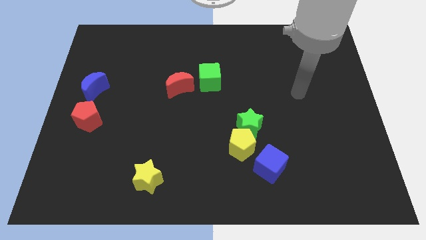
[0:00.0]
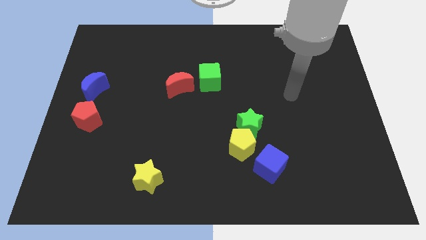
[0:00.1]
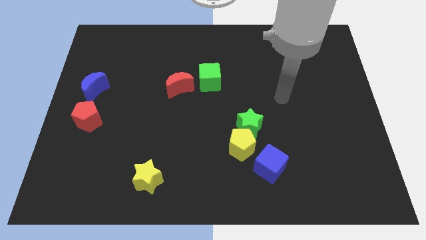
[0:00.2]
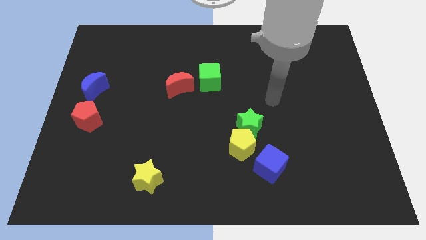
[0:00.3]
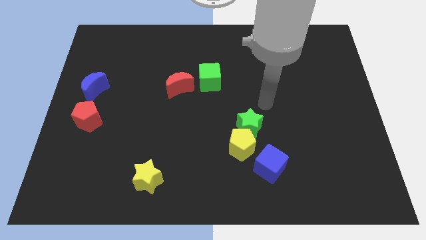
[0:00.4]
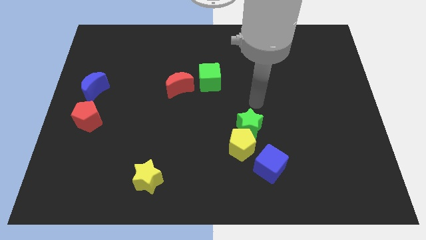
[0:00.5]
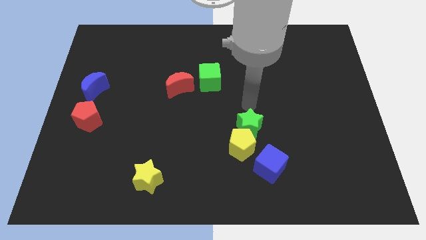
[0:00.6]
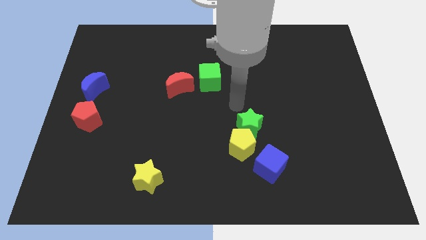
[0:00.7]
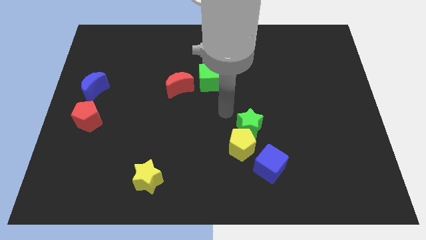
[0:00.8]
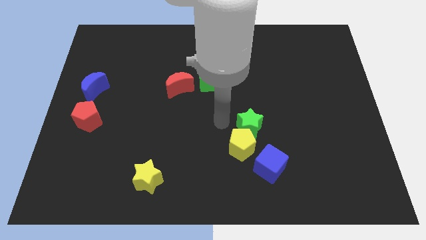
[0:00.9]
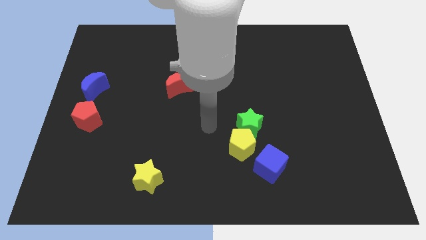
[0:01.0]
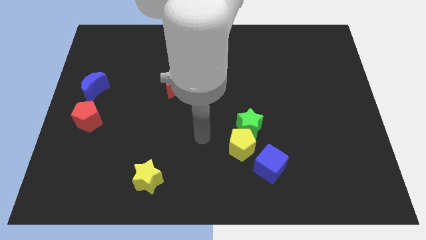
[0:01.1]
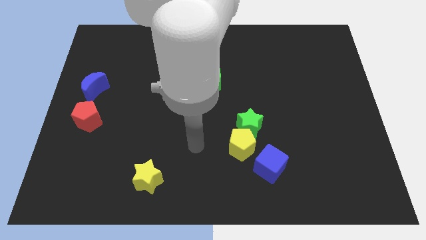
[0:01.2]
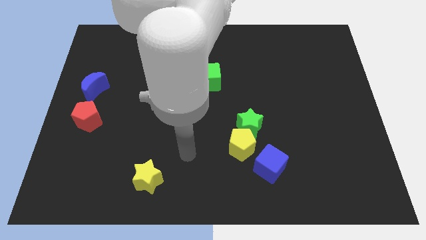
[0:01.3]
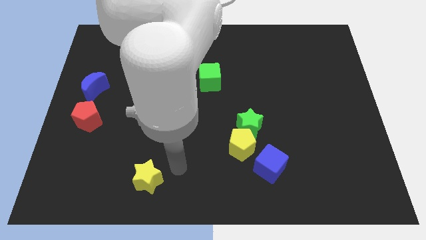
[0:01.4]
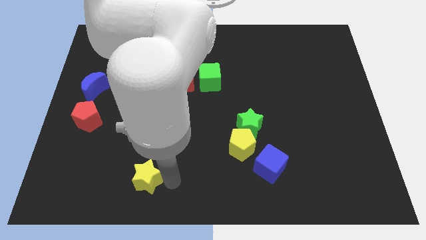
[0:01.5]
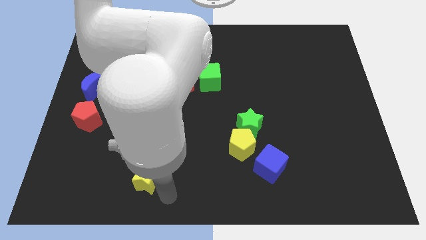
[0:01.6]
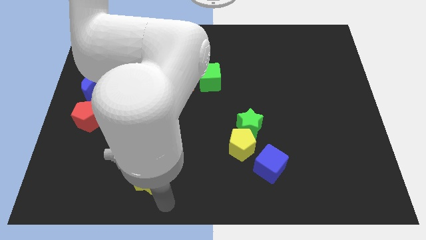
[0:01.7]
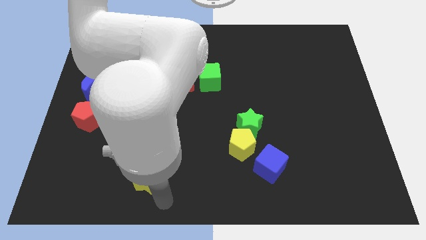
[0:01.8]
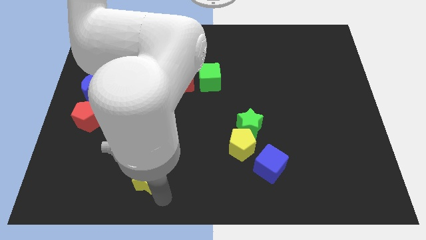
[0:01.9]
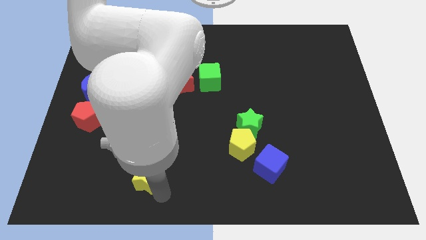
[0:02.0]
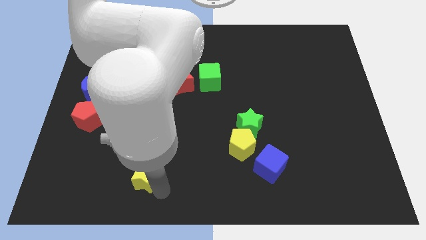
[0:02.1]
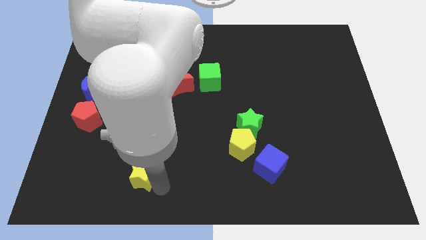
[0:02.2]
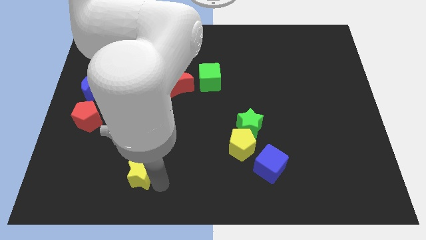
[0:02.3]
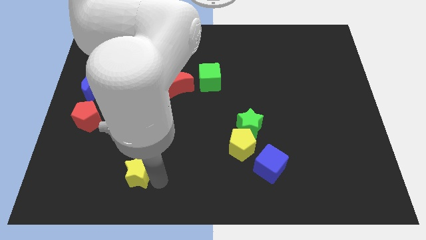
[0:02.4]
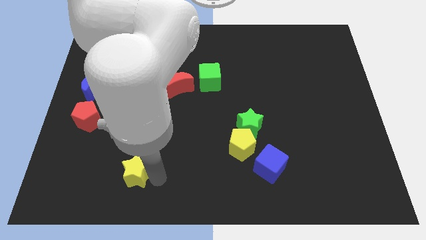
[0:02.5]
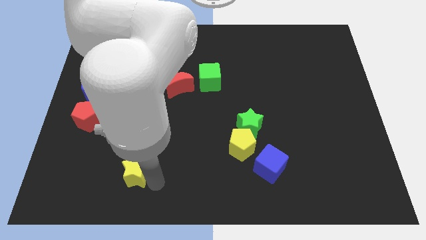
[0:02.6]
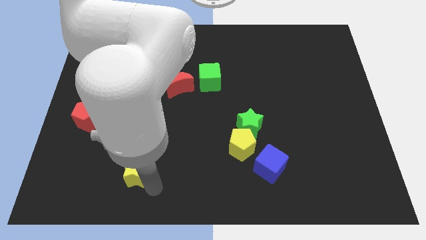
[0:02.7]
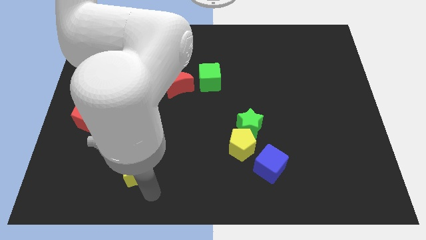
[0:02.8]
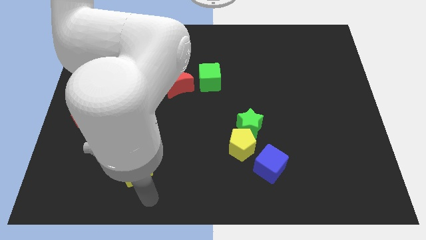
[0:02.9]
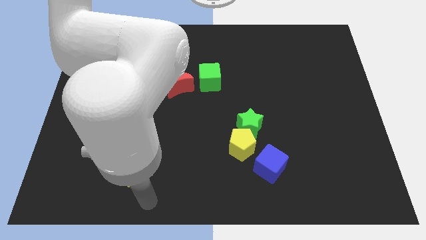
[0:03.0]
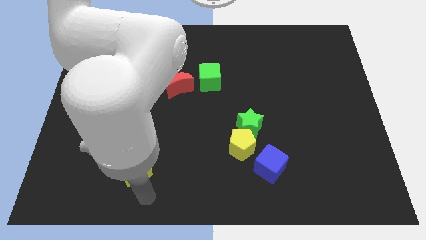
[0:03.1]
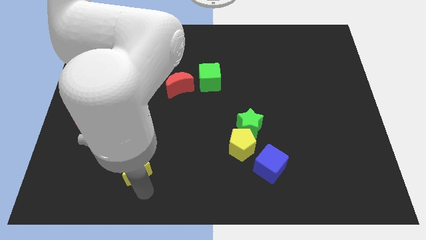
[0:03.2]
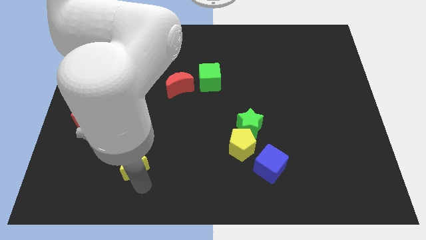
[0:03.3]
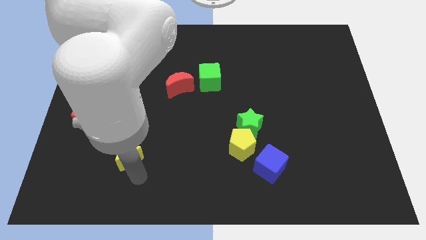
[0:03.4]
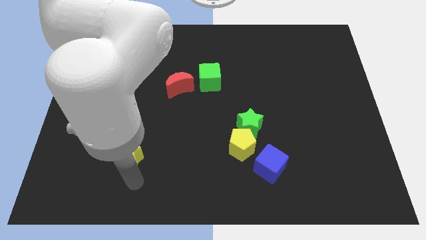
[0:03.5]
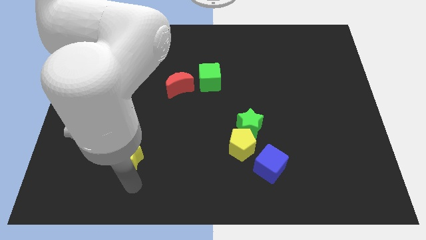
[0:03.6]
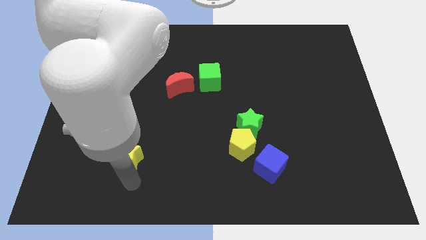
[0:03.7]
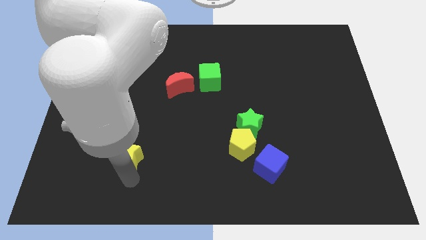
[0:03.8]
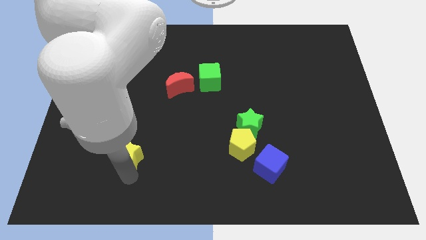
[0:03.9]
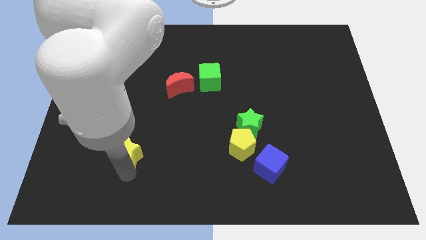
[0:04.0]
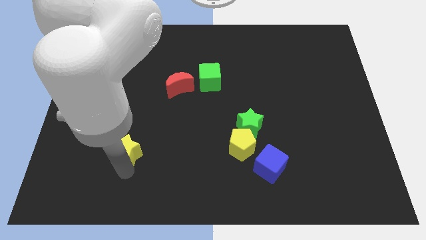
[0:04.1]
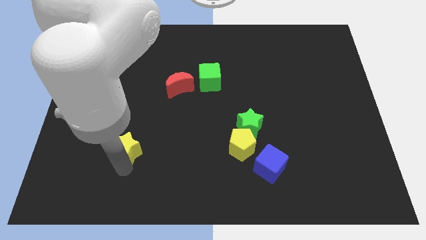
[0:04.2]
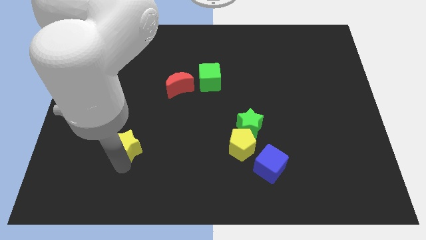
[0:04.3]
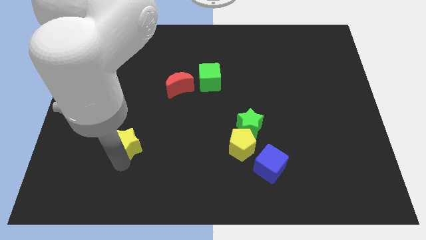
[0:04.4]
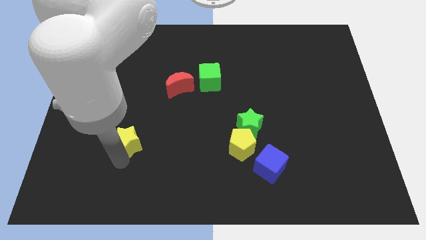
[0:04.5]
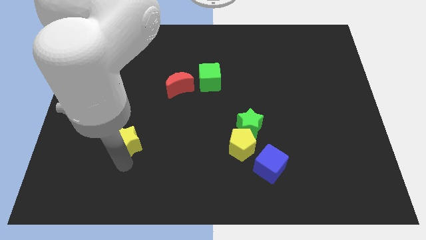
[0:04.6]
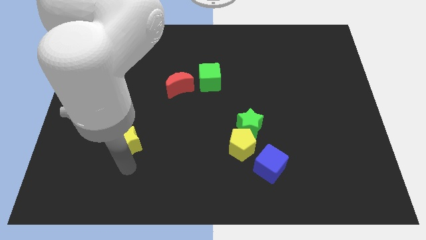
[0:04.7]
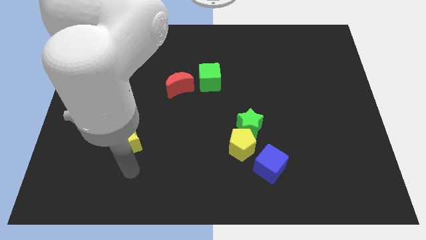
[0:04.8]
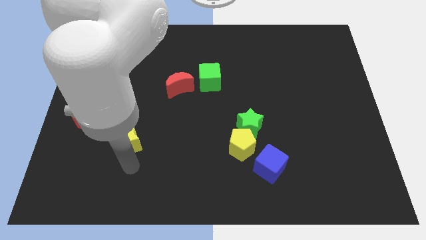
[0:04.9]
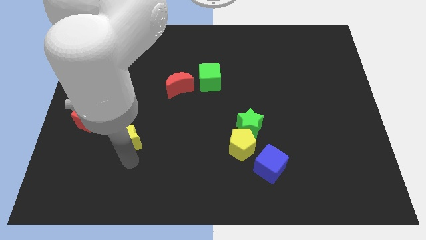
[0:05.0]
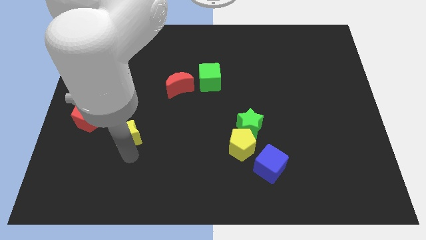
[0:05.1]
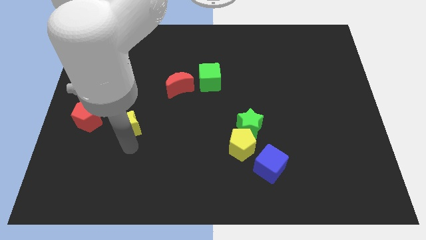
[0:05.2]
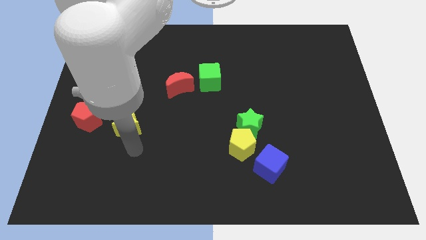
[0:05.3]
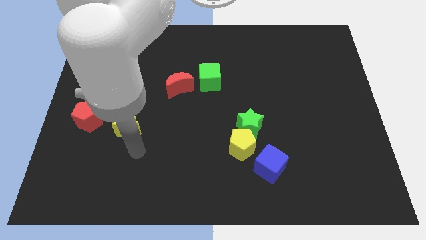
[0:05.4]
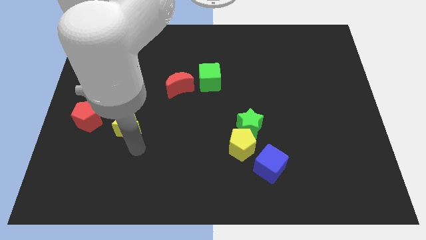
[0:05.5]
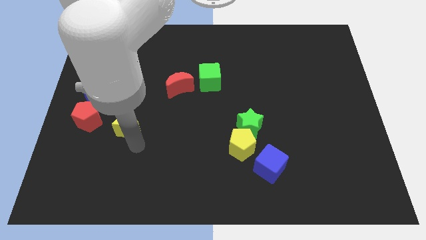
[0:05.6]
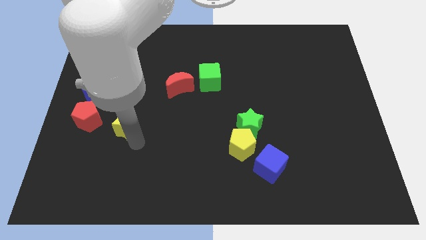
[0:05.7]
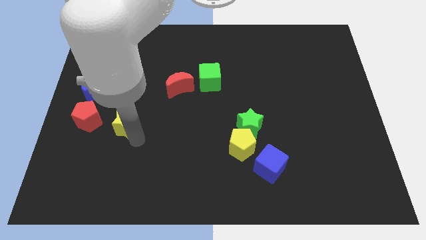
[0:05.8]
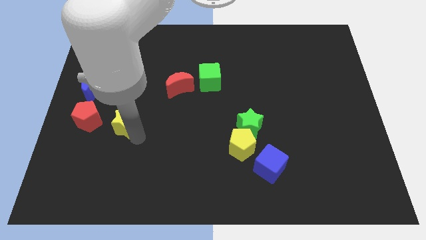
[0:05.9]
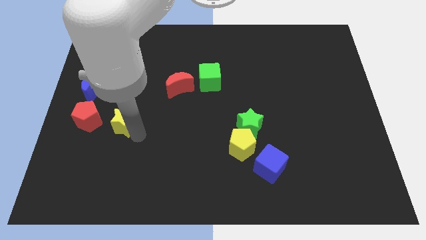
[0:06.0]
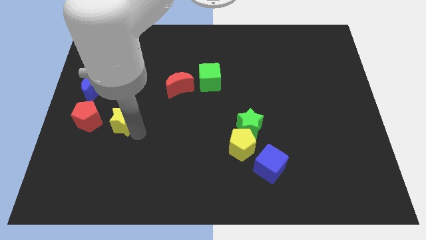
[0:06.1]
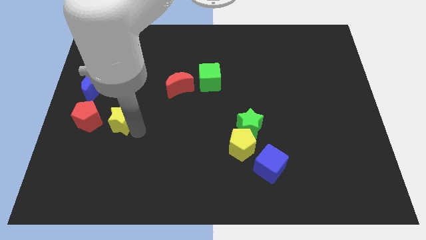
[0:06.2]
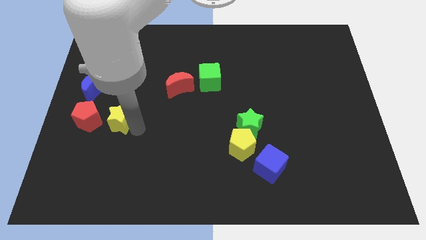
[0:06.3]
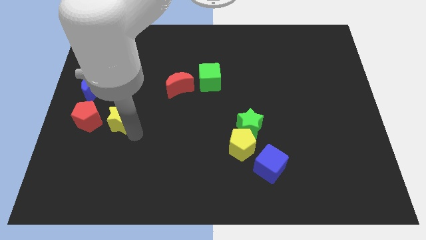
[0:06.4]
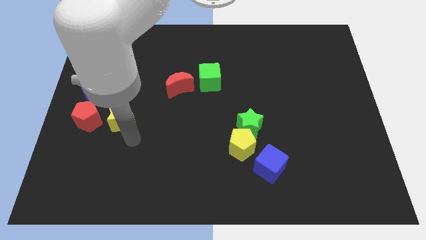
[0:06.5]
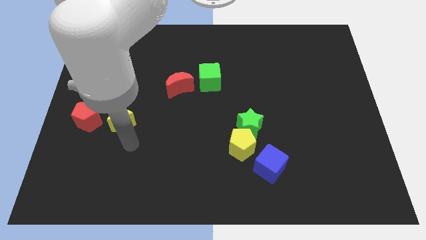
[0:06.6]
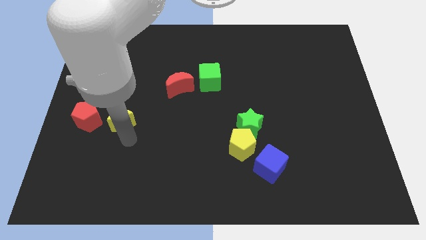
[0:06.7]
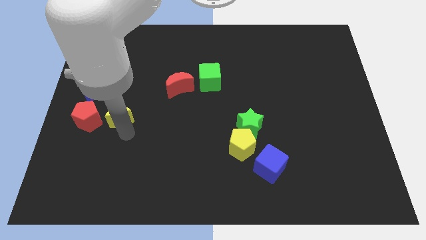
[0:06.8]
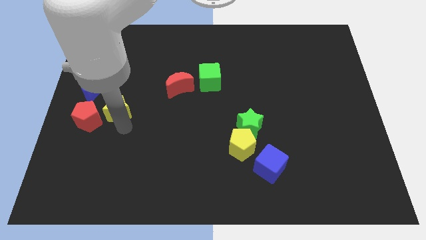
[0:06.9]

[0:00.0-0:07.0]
move the yellow star to the top right side of the red pentagon

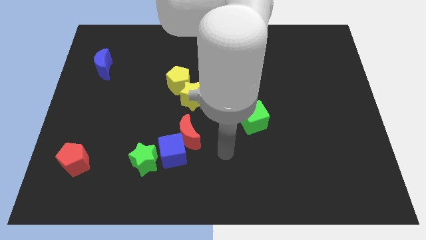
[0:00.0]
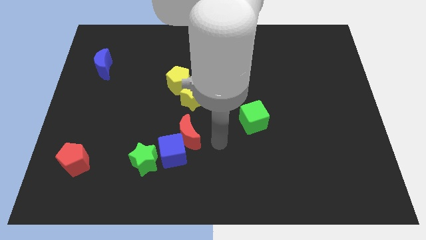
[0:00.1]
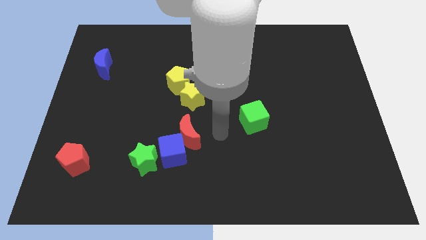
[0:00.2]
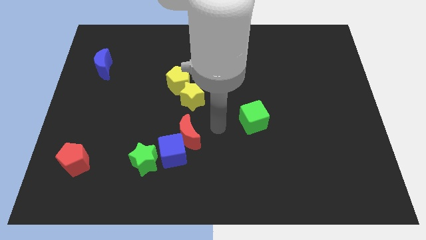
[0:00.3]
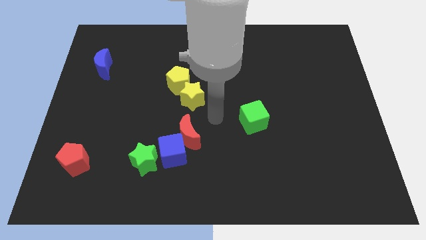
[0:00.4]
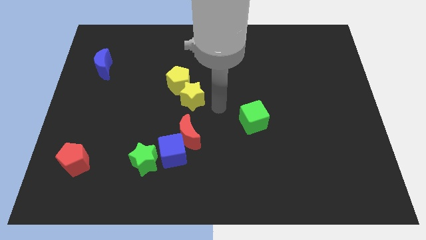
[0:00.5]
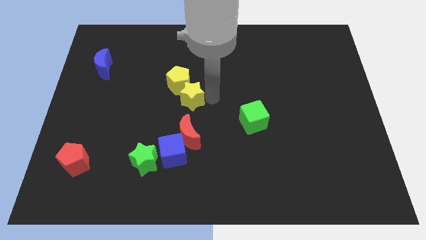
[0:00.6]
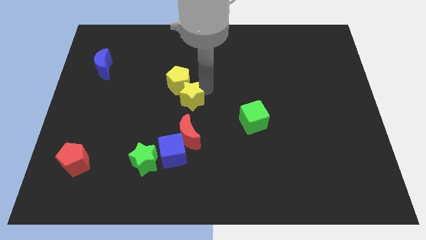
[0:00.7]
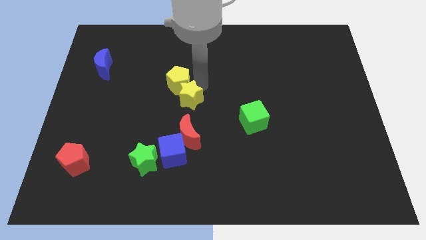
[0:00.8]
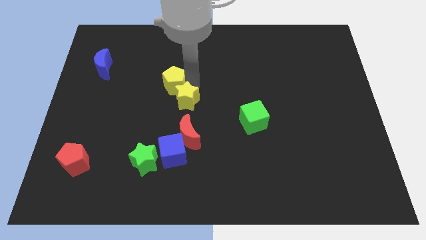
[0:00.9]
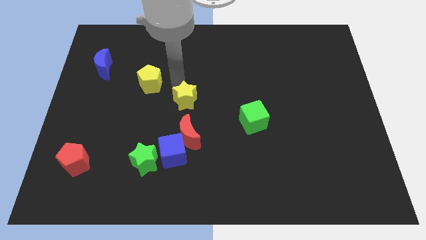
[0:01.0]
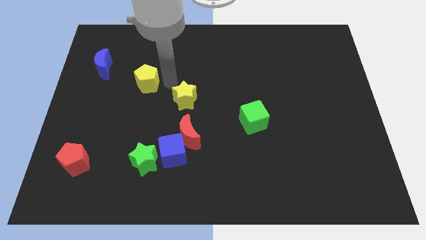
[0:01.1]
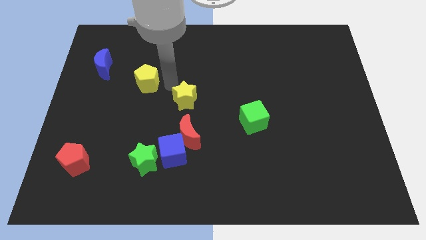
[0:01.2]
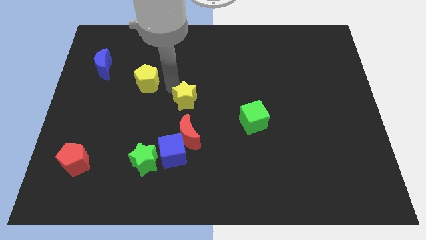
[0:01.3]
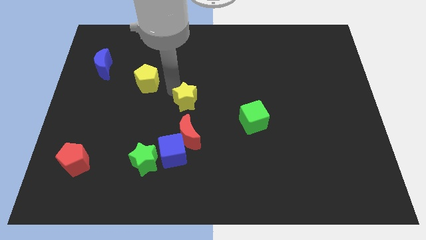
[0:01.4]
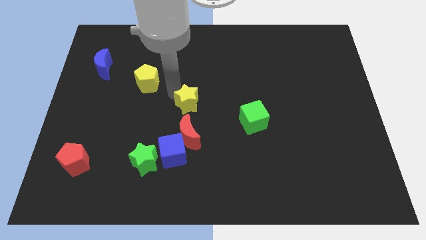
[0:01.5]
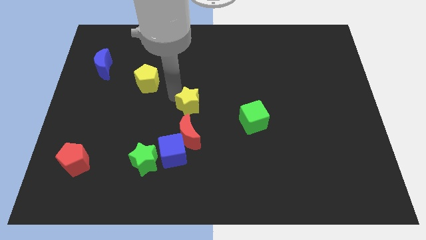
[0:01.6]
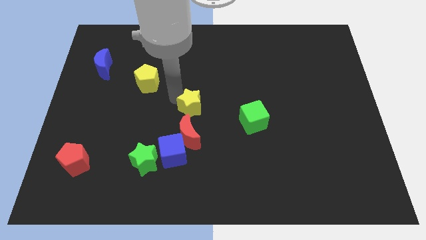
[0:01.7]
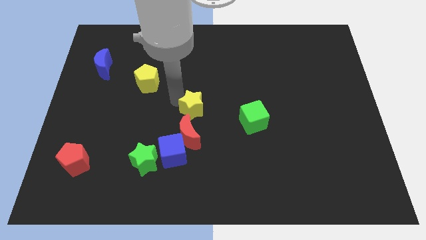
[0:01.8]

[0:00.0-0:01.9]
move the yellow star just left of the green cube
